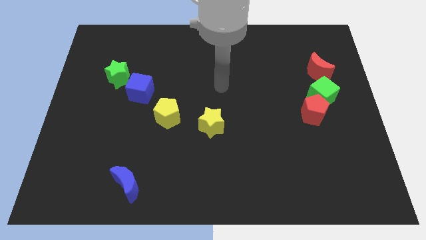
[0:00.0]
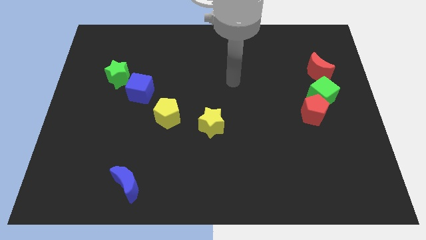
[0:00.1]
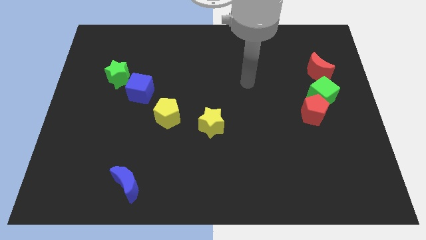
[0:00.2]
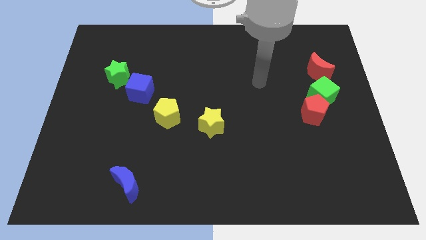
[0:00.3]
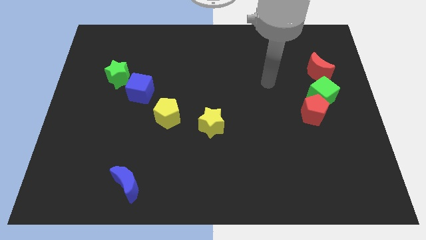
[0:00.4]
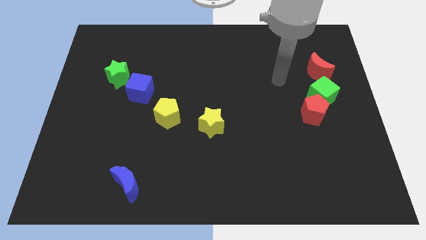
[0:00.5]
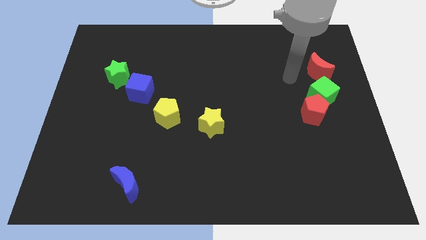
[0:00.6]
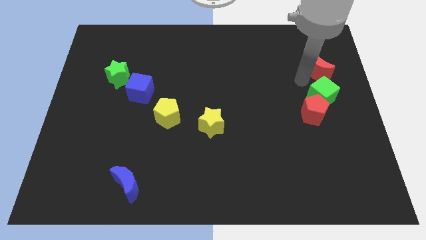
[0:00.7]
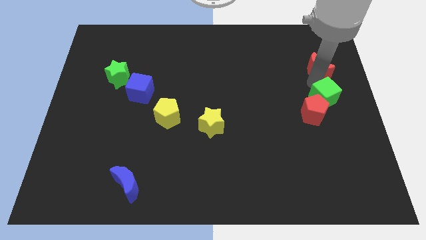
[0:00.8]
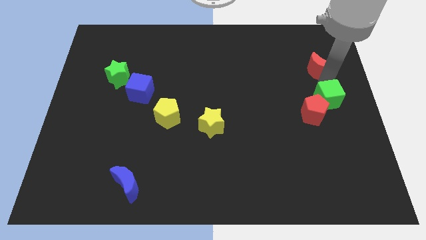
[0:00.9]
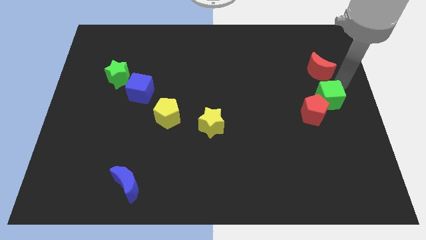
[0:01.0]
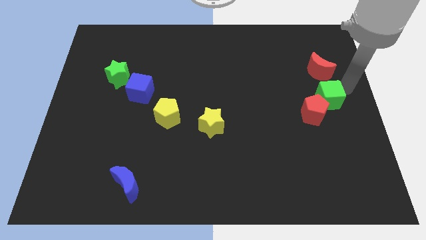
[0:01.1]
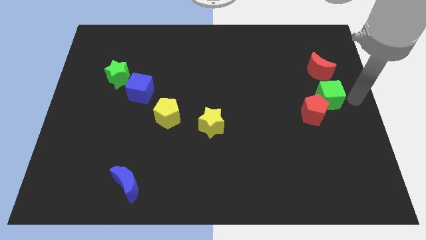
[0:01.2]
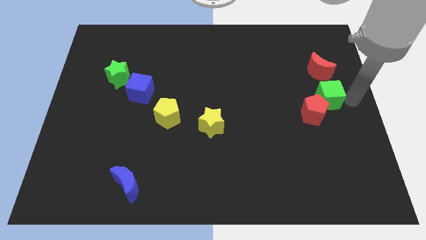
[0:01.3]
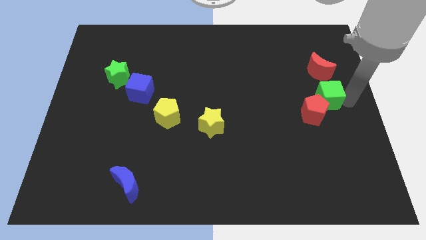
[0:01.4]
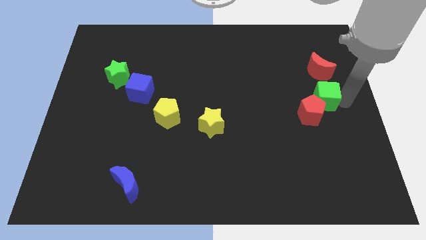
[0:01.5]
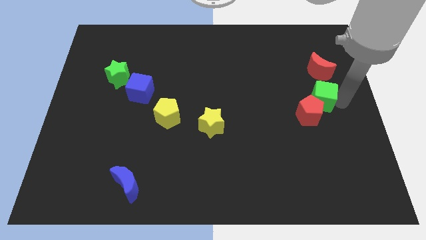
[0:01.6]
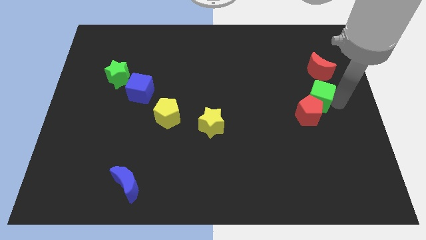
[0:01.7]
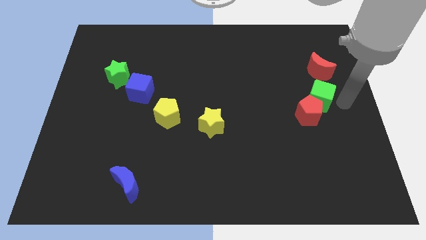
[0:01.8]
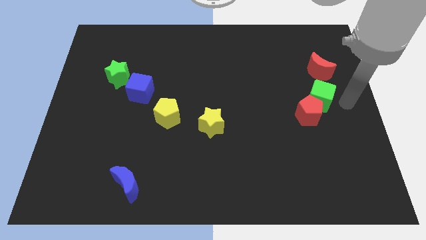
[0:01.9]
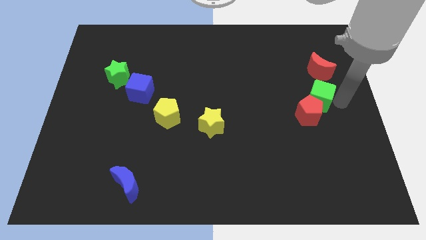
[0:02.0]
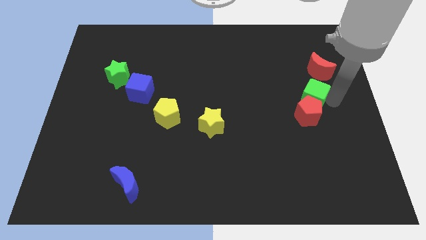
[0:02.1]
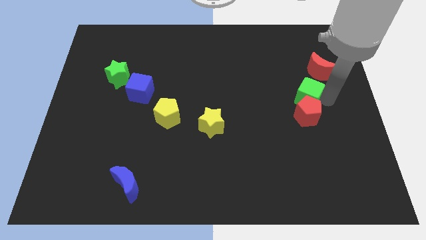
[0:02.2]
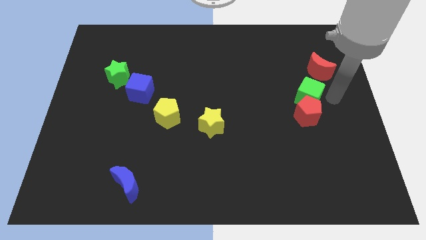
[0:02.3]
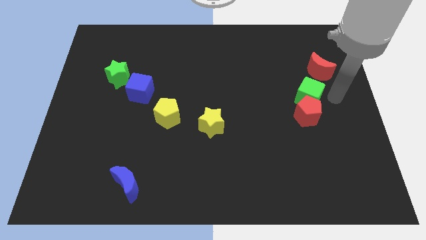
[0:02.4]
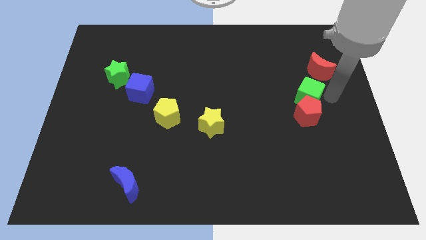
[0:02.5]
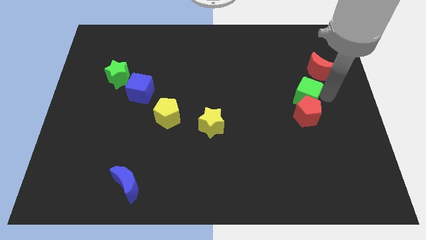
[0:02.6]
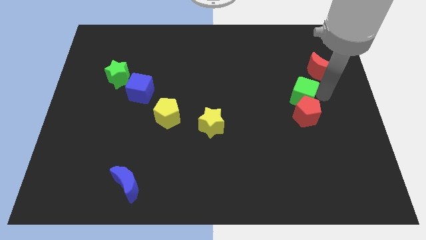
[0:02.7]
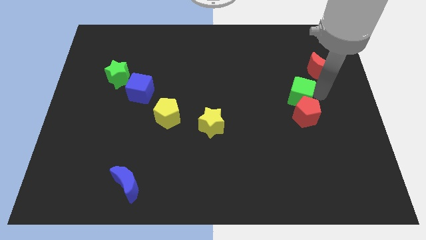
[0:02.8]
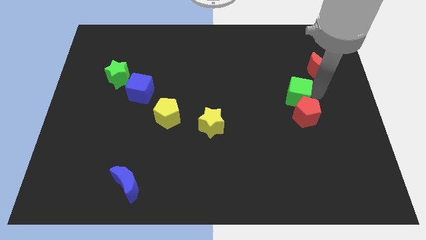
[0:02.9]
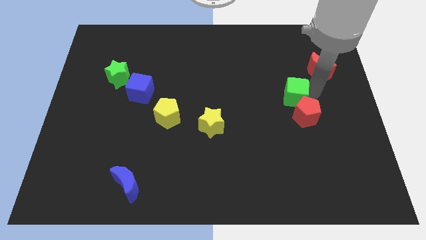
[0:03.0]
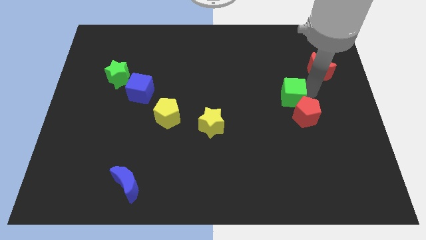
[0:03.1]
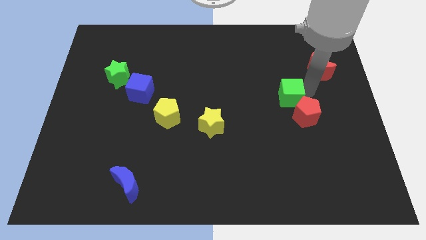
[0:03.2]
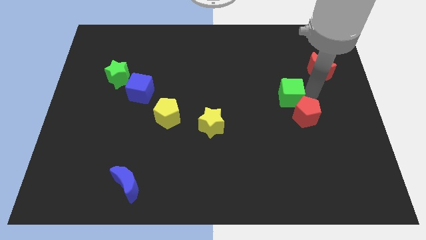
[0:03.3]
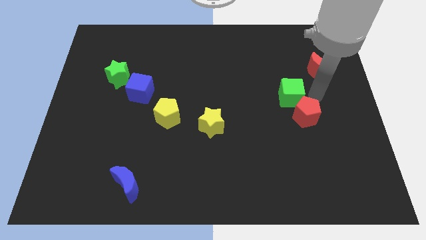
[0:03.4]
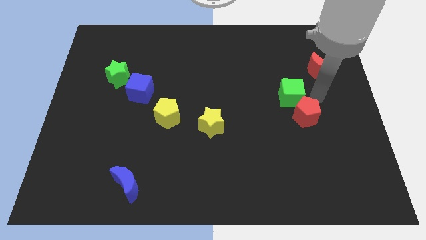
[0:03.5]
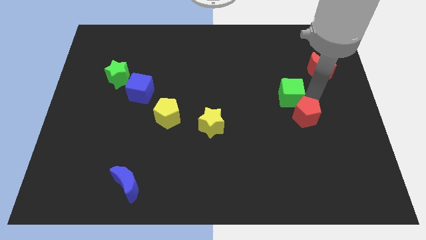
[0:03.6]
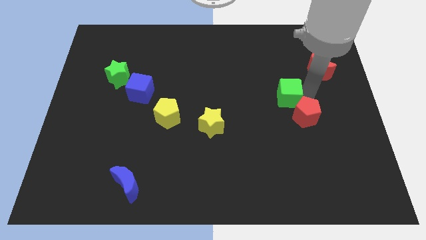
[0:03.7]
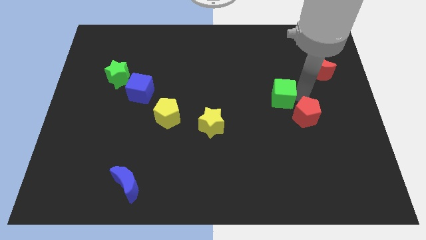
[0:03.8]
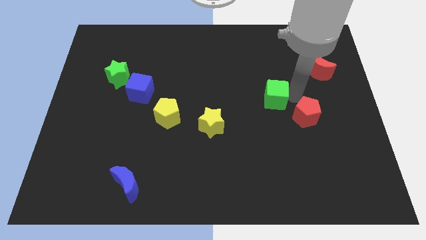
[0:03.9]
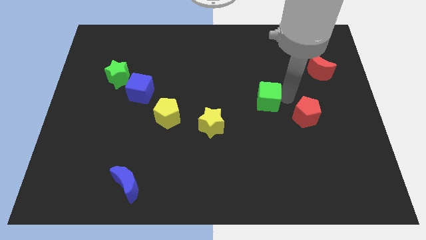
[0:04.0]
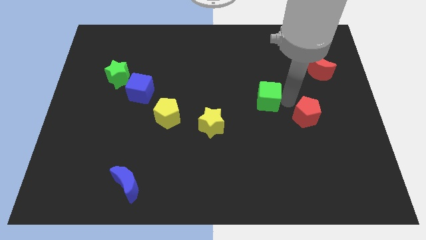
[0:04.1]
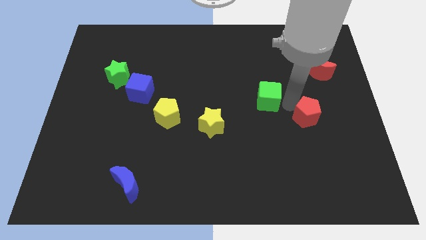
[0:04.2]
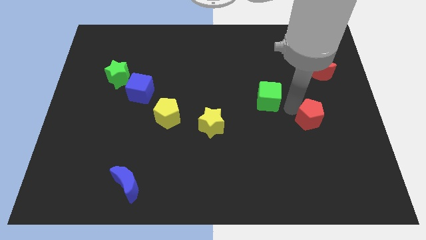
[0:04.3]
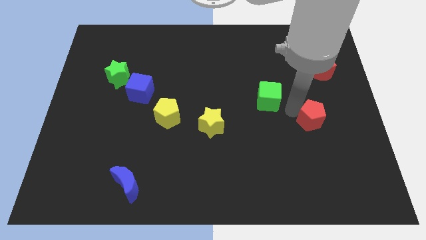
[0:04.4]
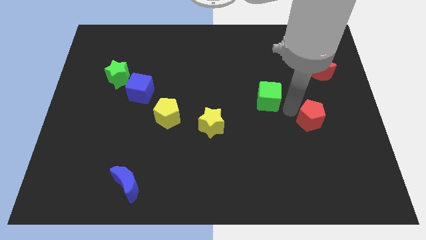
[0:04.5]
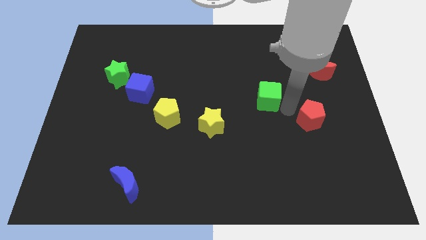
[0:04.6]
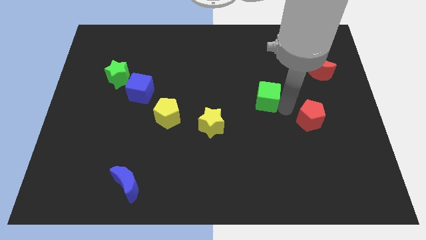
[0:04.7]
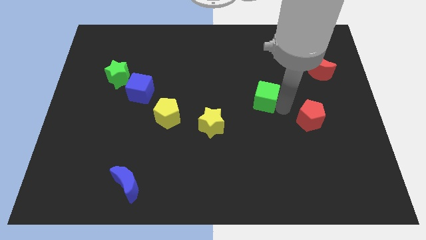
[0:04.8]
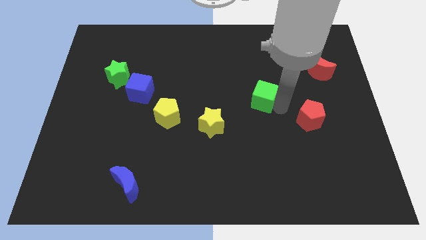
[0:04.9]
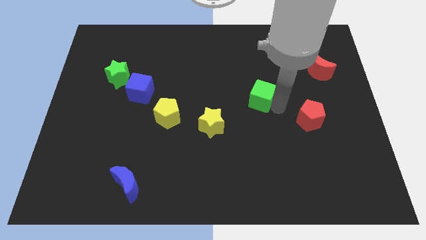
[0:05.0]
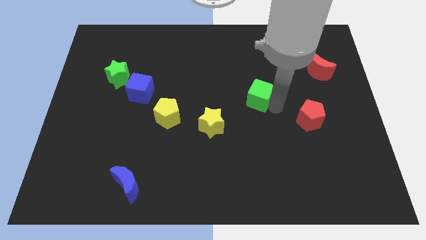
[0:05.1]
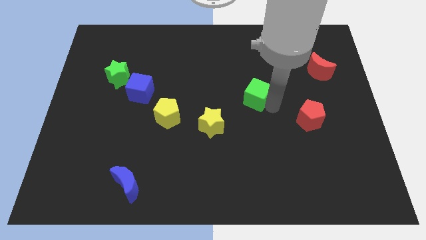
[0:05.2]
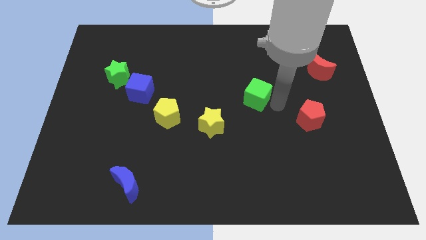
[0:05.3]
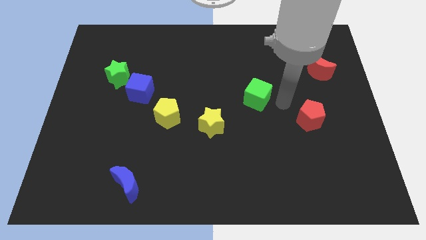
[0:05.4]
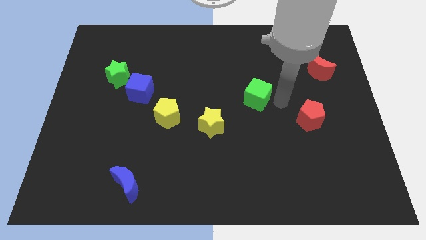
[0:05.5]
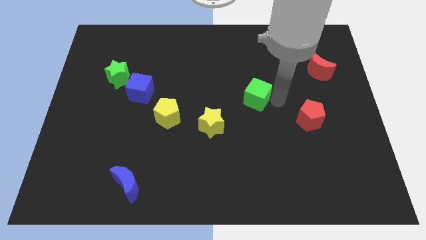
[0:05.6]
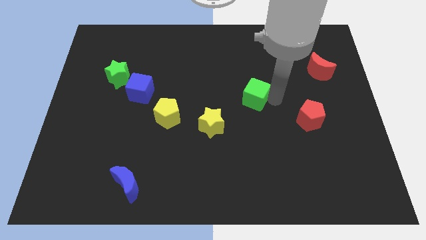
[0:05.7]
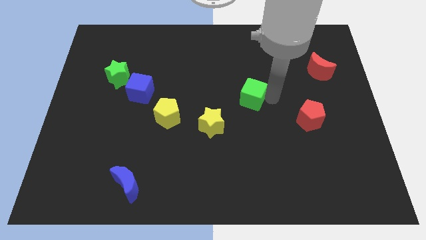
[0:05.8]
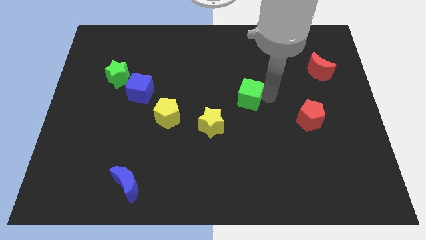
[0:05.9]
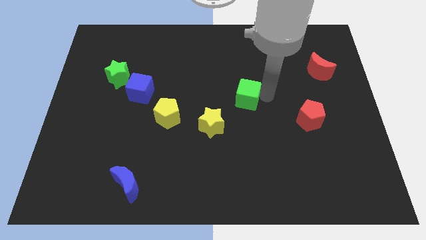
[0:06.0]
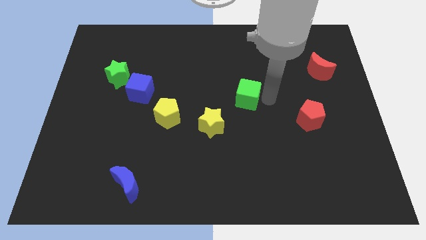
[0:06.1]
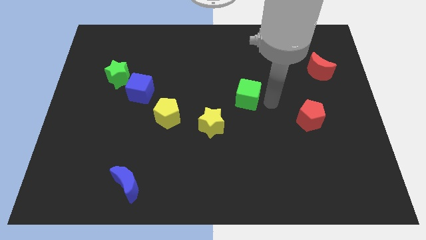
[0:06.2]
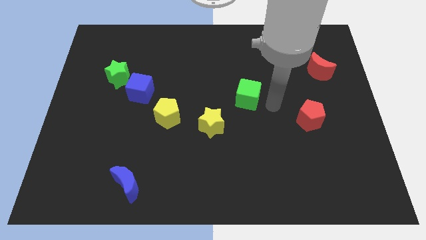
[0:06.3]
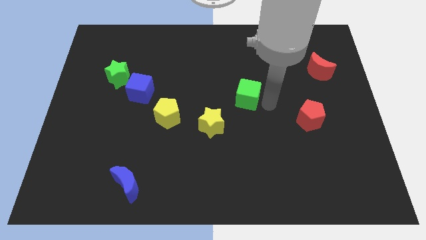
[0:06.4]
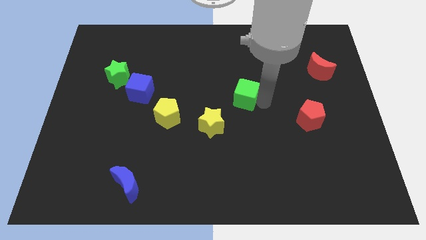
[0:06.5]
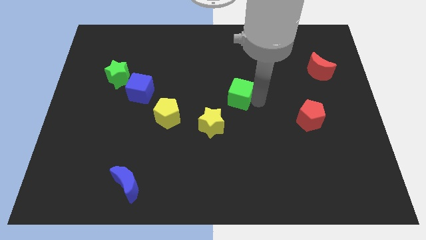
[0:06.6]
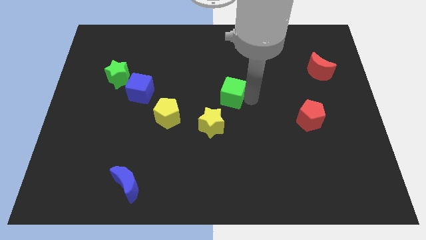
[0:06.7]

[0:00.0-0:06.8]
move the green cube to the top side of the yellow star

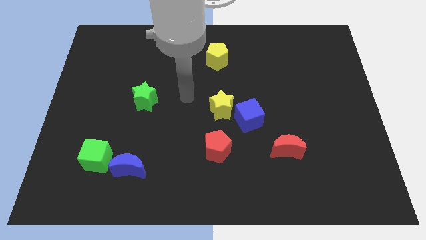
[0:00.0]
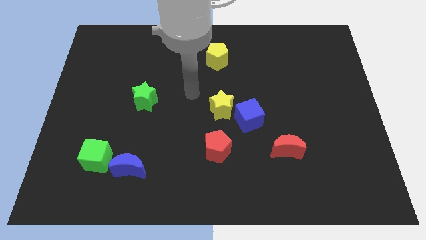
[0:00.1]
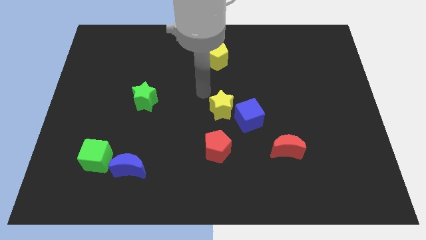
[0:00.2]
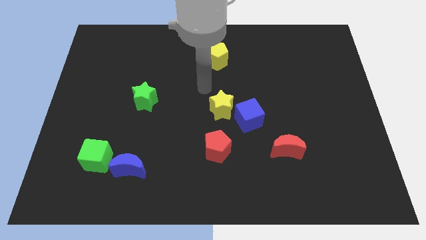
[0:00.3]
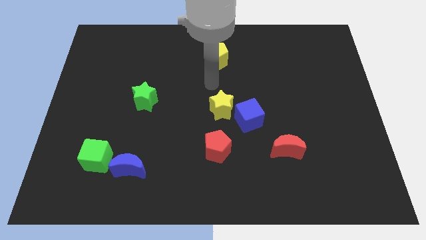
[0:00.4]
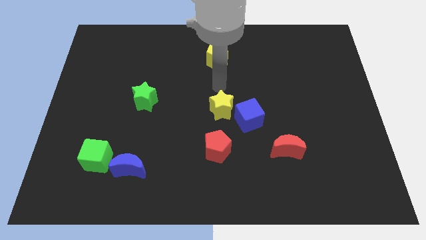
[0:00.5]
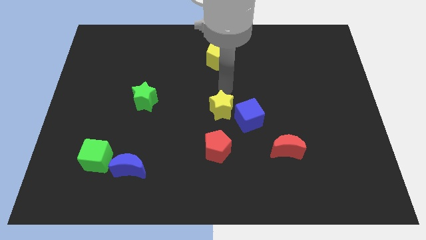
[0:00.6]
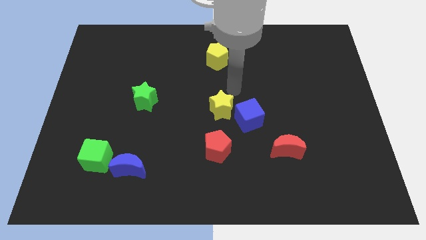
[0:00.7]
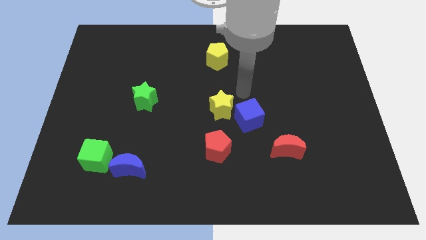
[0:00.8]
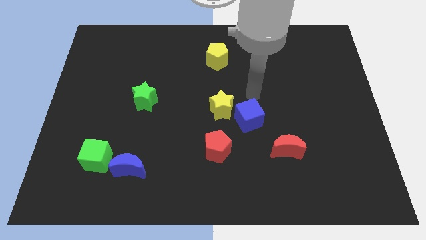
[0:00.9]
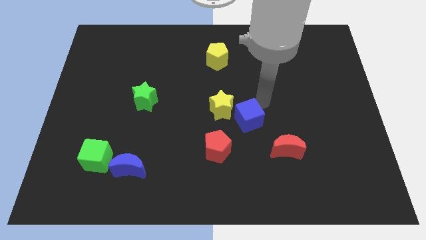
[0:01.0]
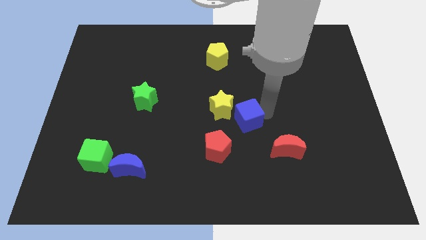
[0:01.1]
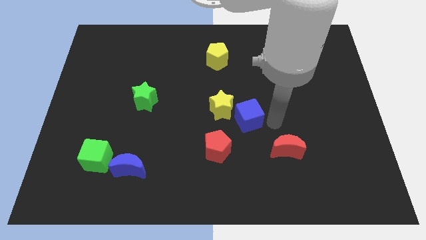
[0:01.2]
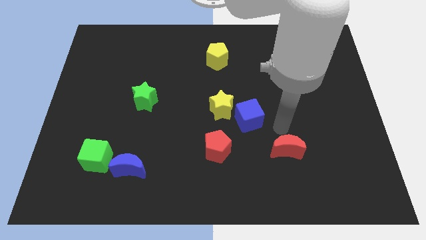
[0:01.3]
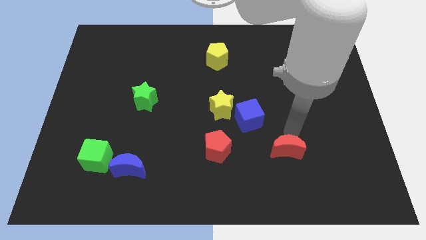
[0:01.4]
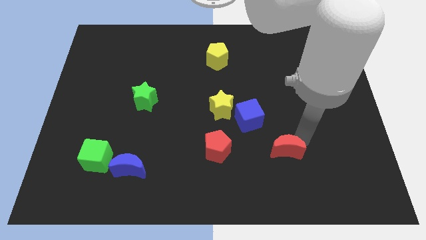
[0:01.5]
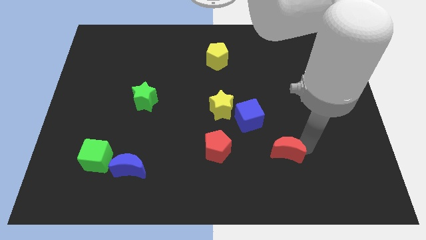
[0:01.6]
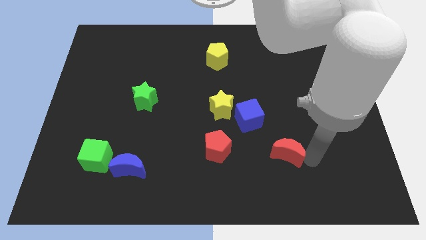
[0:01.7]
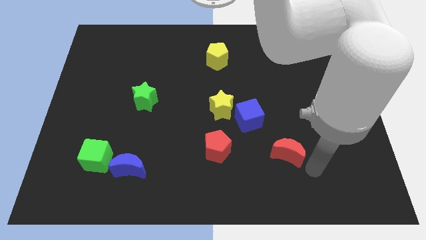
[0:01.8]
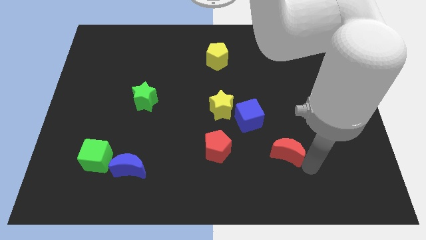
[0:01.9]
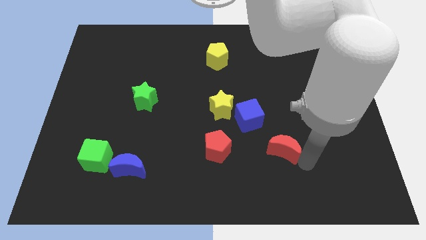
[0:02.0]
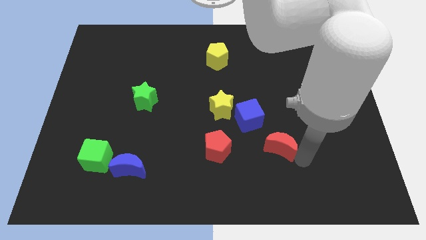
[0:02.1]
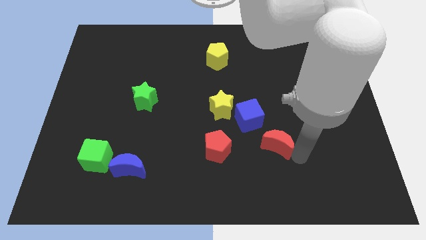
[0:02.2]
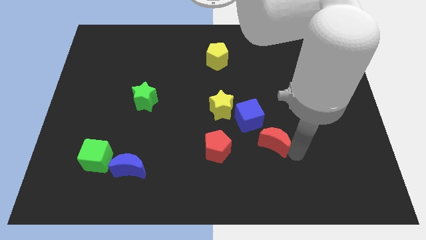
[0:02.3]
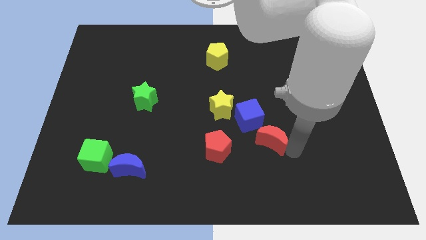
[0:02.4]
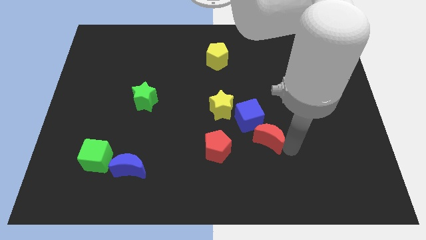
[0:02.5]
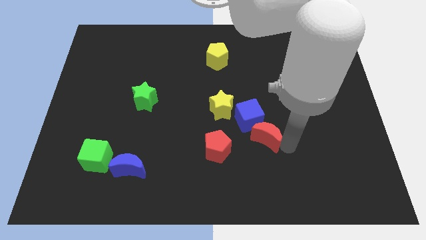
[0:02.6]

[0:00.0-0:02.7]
move the red moon diagonally down and to the right of the yellow star
